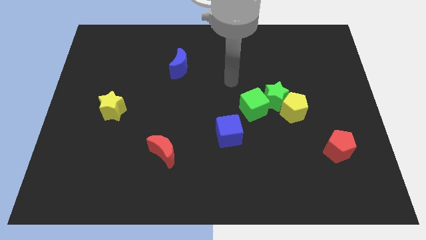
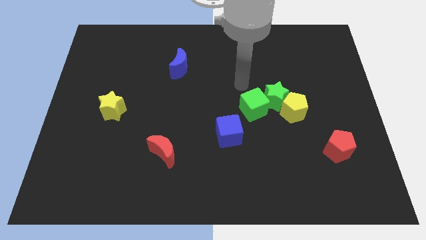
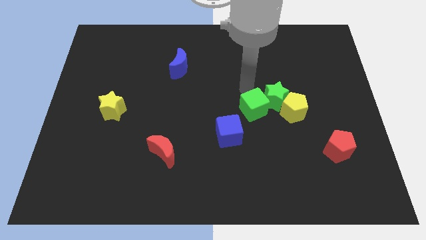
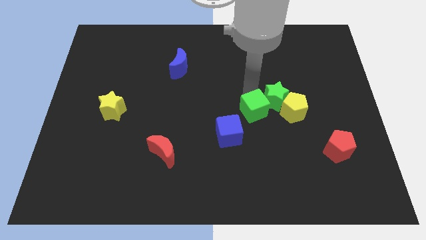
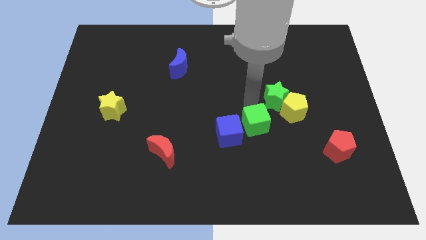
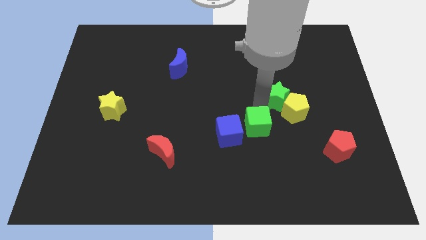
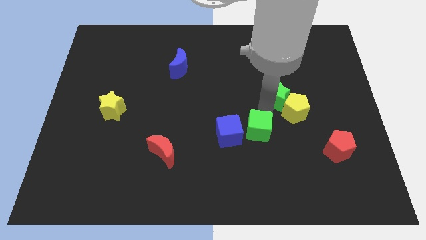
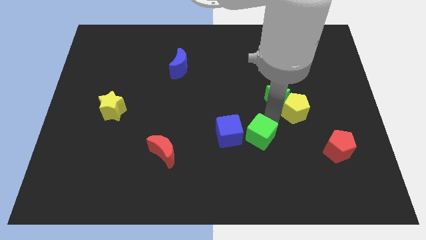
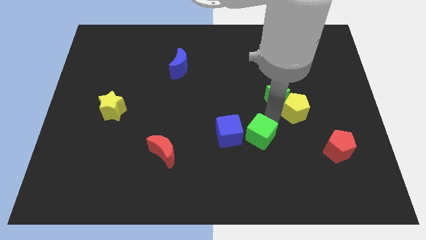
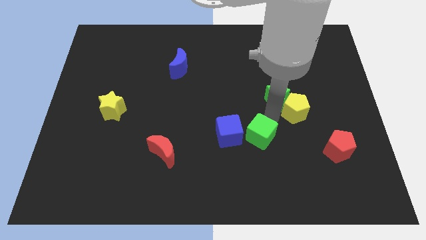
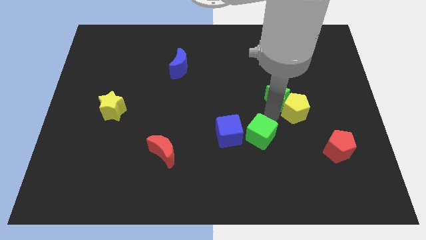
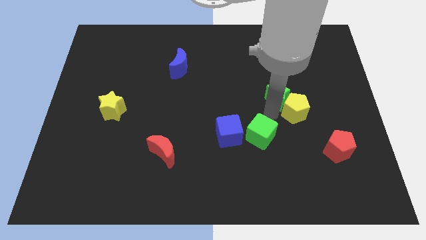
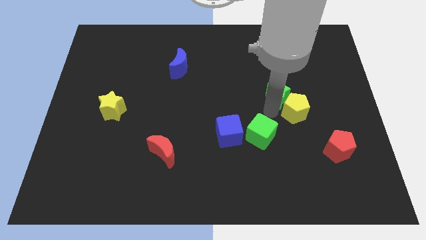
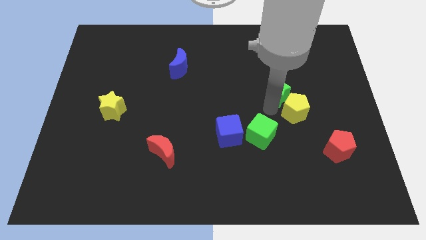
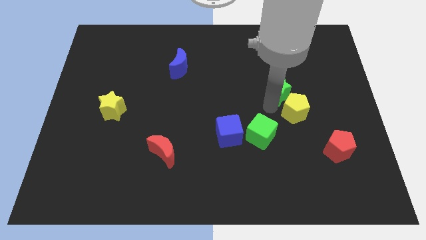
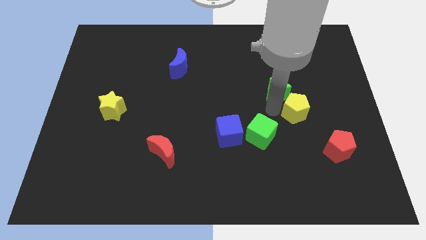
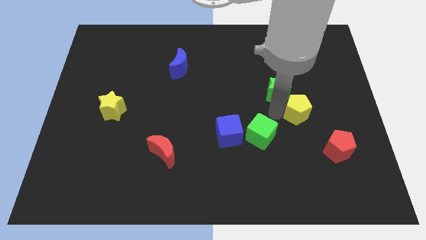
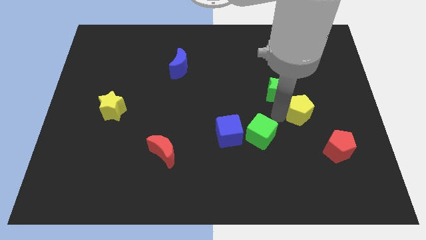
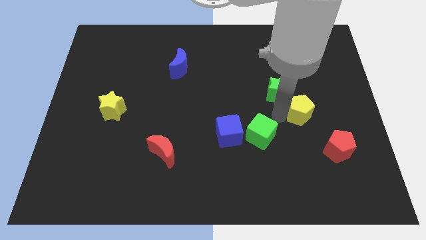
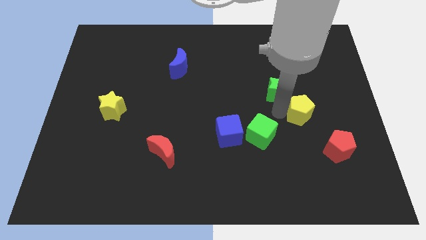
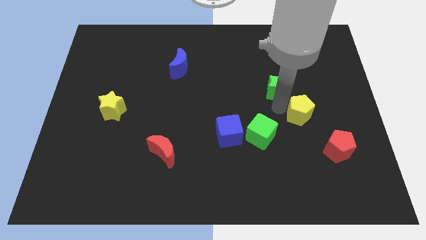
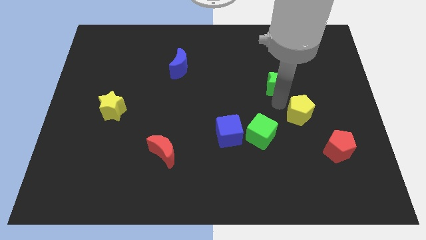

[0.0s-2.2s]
pull the green star apart from the yellow pentagon and green cube

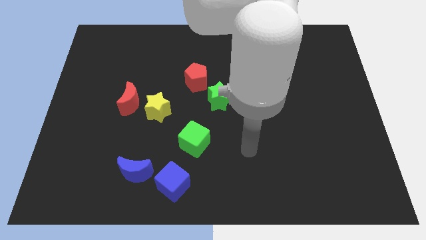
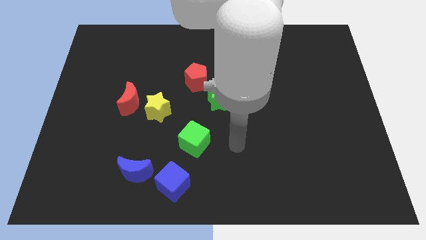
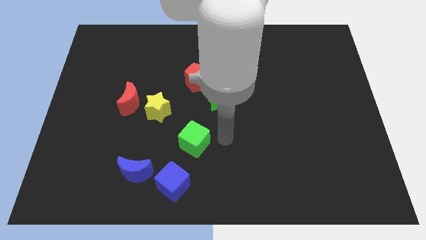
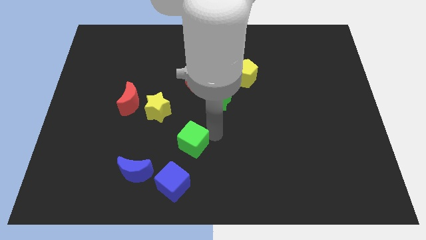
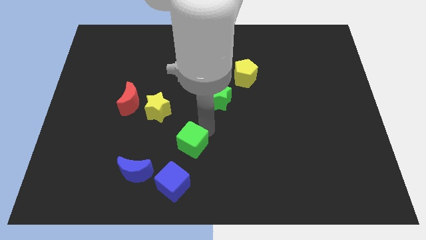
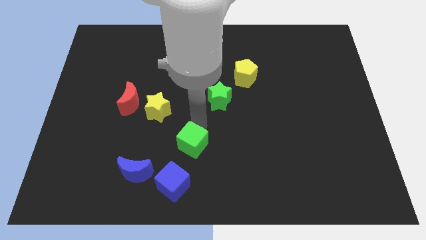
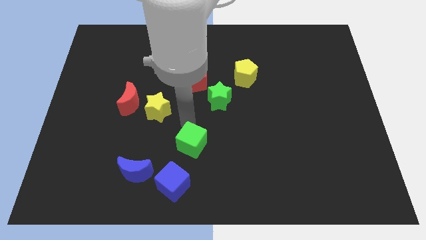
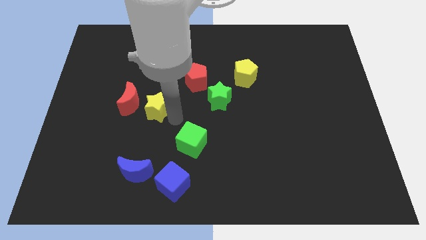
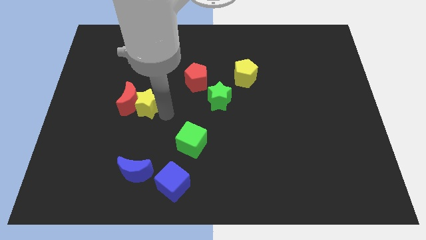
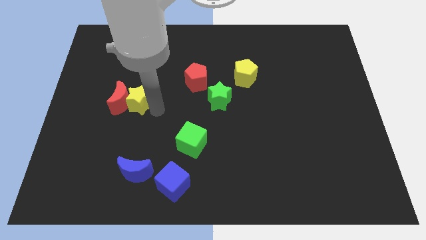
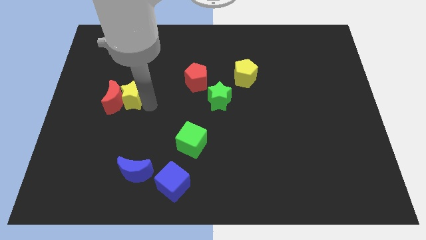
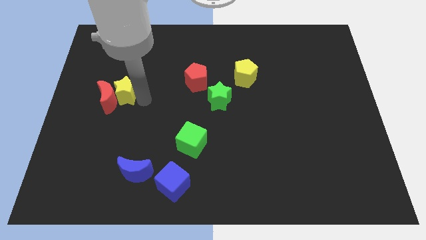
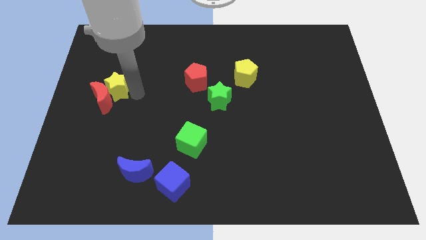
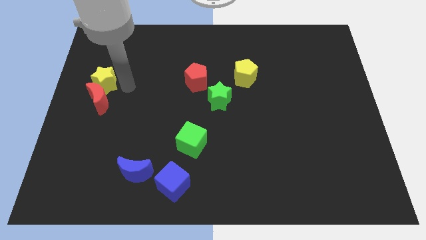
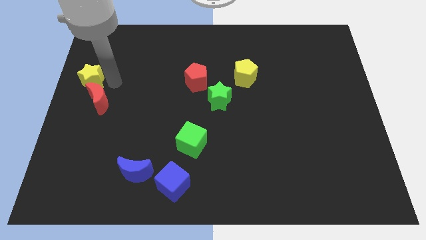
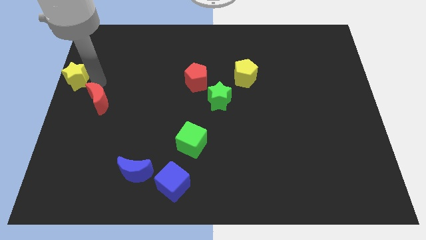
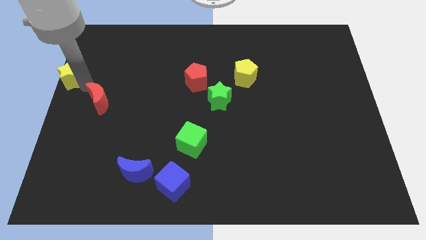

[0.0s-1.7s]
move the red moon away from the yellow star

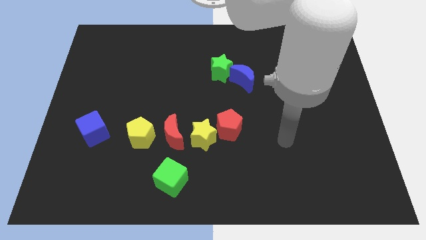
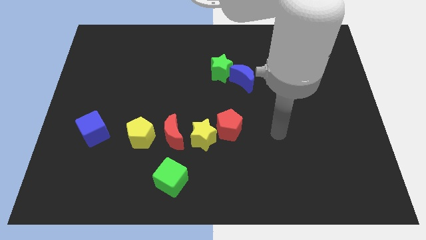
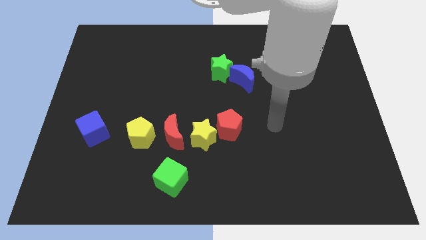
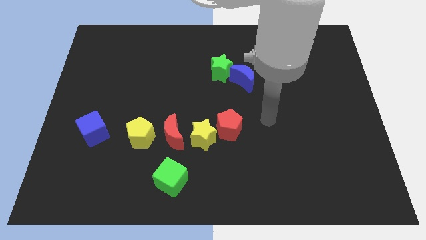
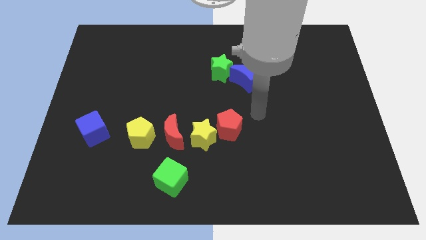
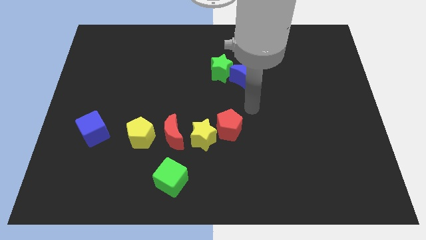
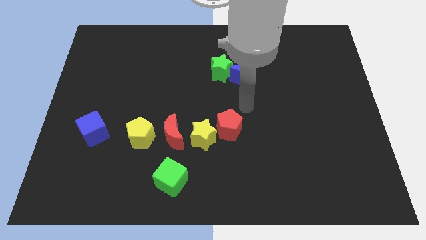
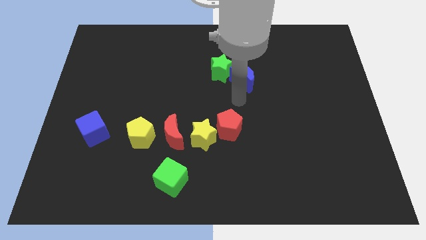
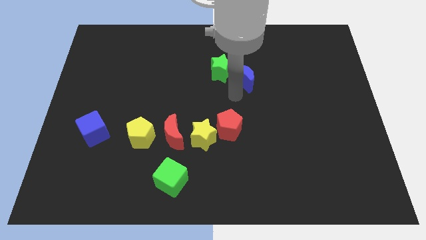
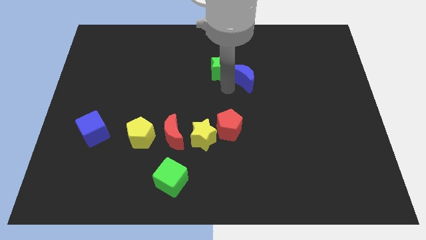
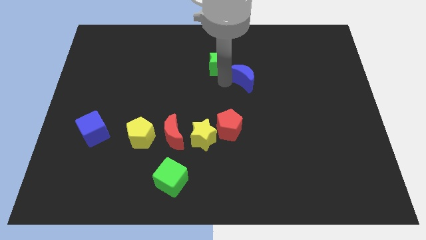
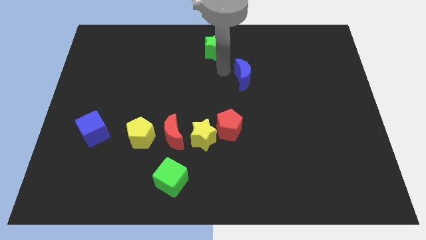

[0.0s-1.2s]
move the blue moon away from the green star

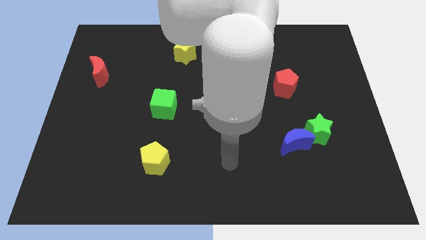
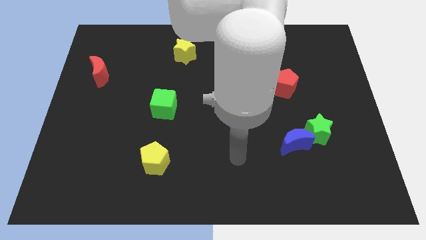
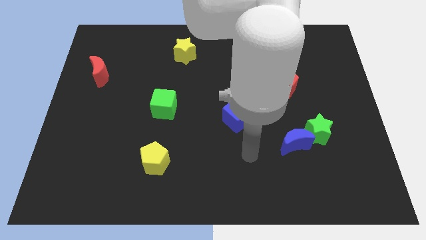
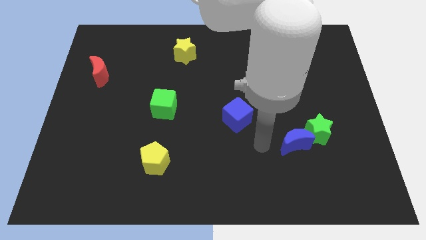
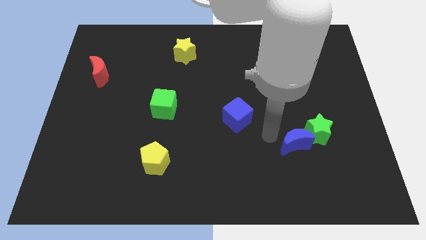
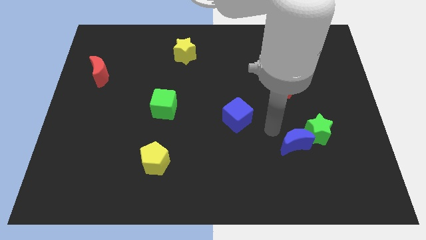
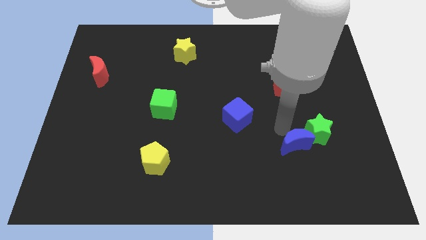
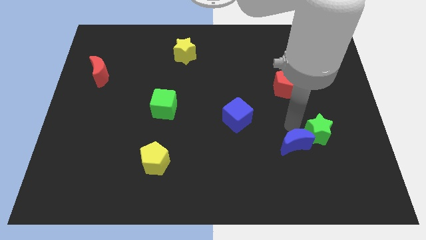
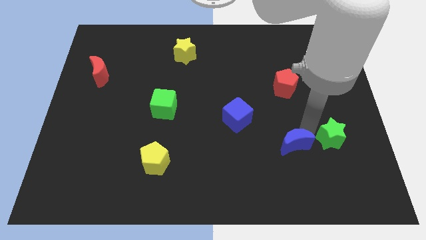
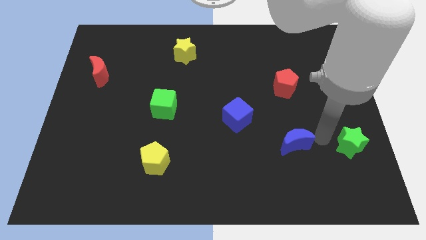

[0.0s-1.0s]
pull the blue moon apart from the green star

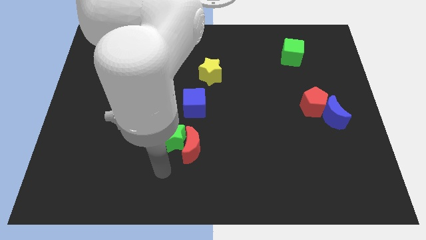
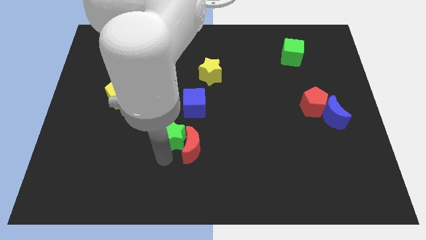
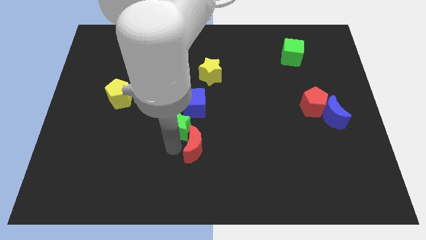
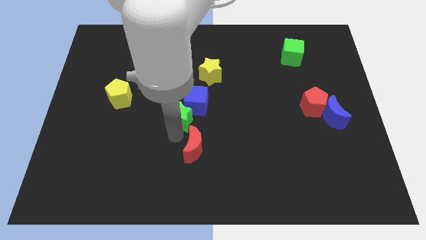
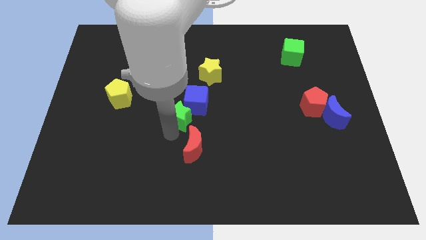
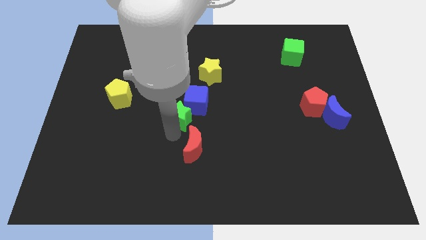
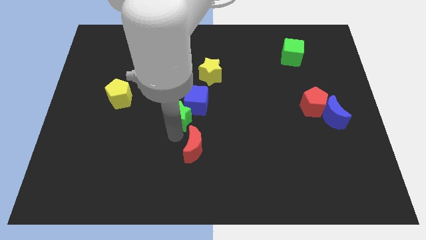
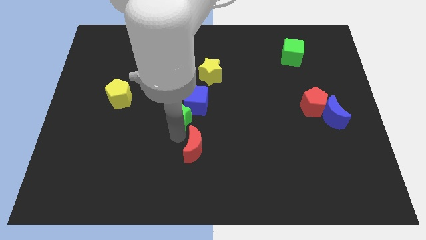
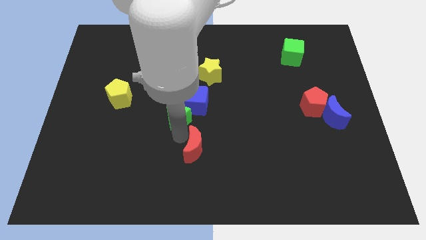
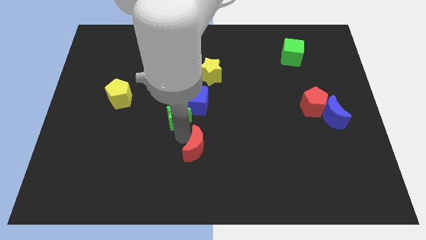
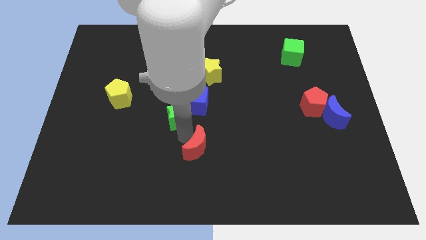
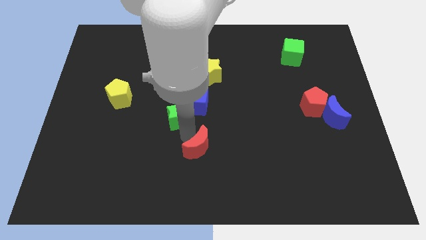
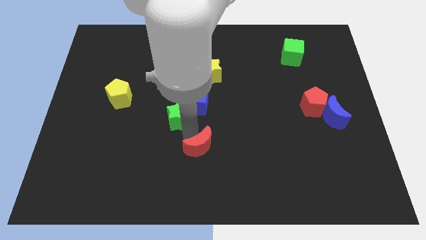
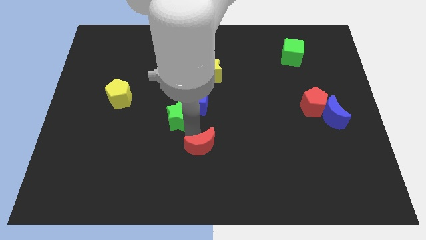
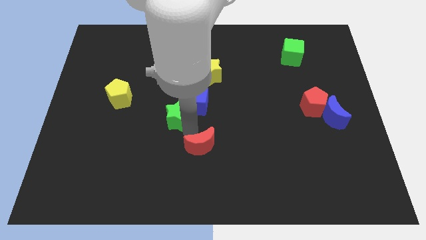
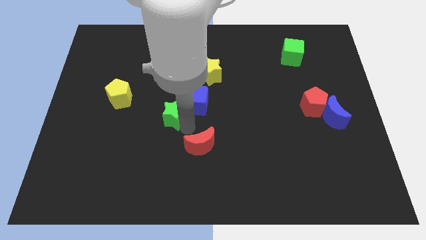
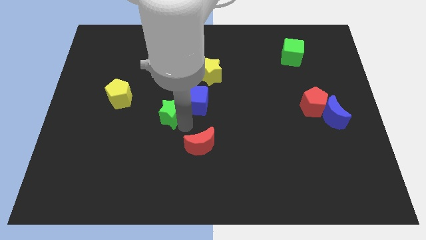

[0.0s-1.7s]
pull the red moon apart from the green star

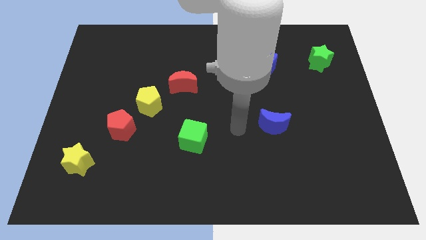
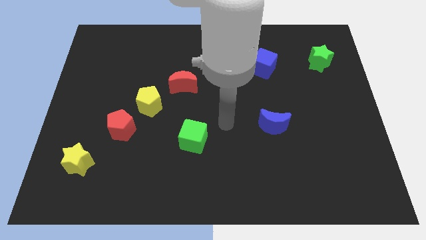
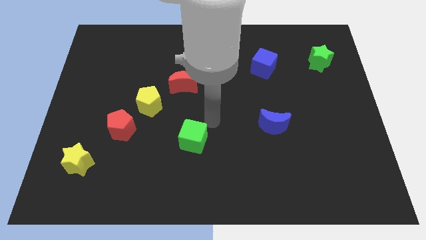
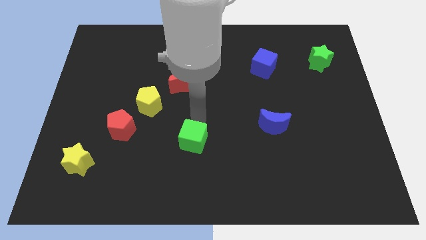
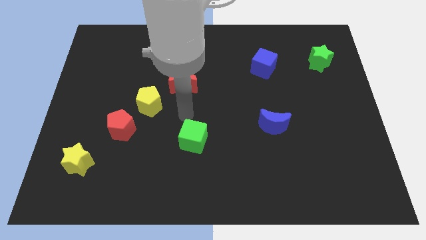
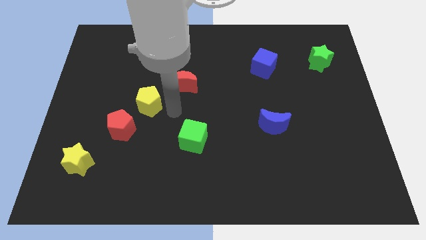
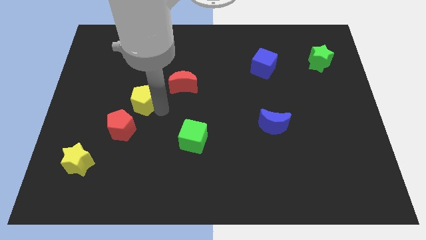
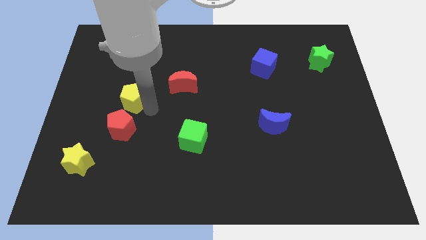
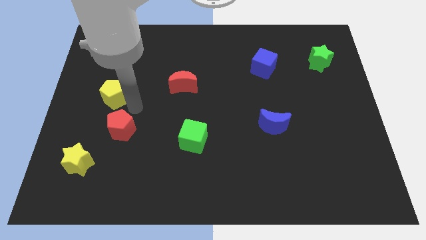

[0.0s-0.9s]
separate the red pentagon from the yellow pentagon

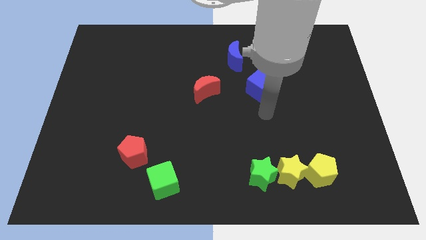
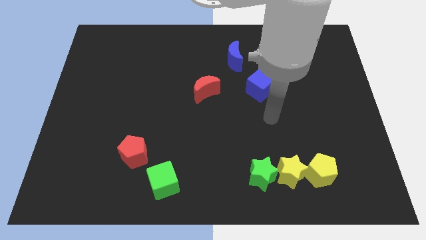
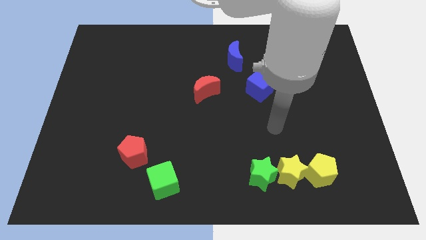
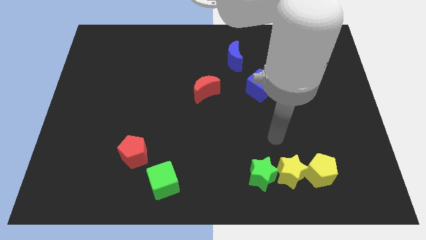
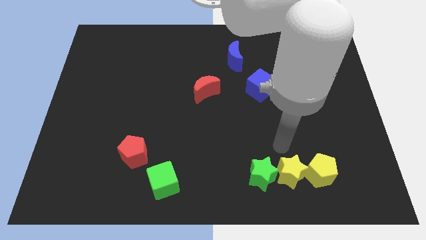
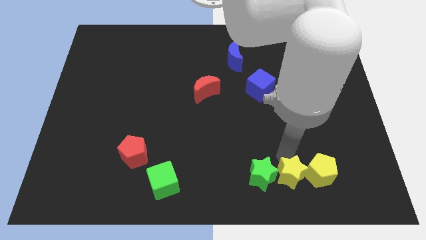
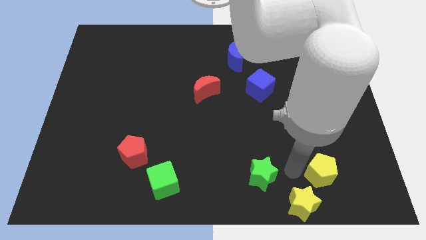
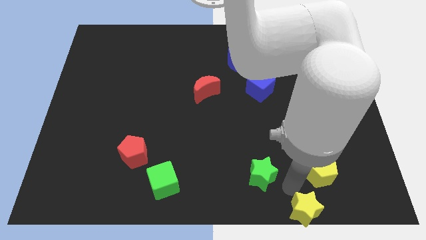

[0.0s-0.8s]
separate the green star from the yellow star
